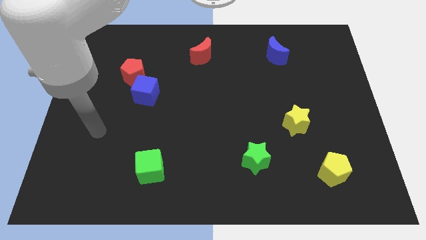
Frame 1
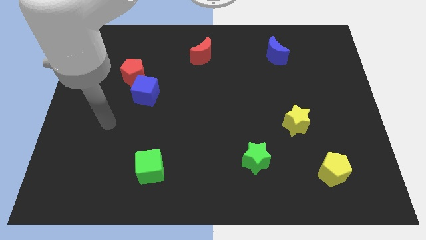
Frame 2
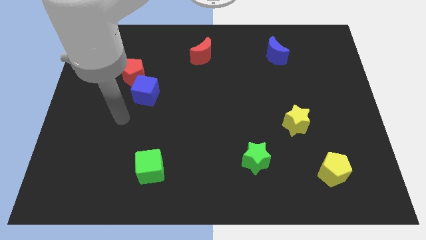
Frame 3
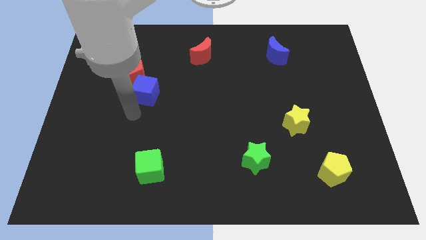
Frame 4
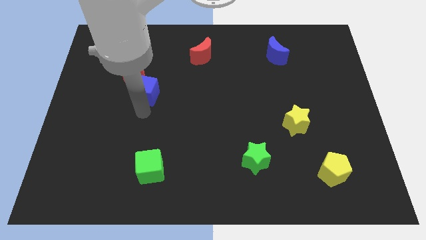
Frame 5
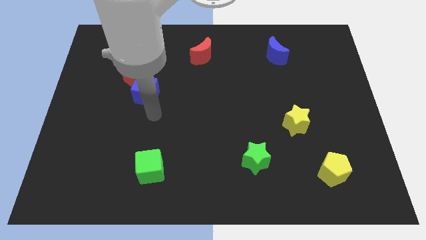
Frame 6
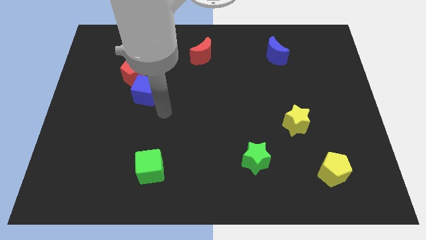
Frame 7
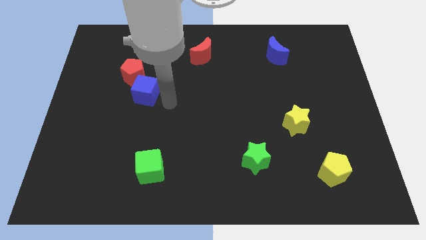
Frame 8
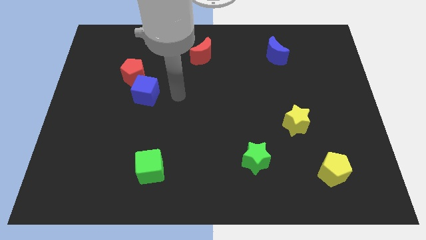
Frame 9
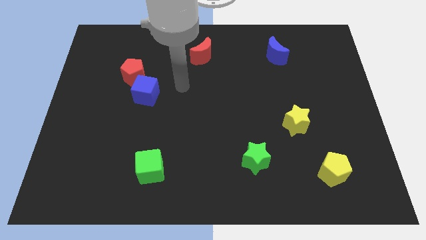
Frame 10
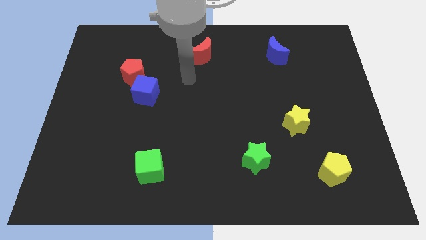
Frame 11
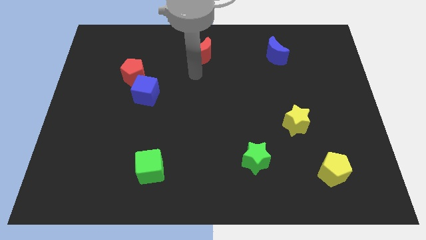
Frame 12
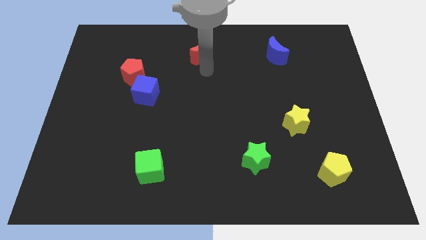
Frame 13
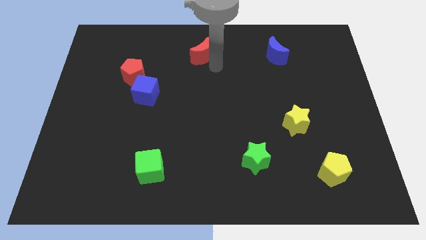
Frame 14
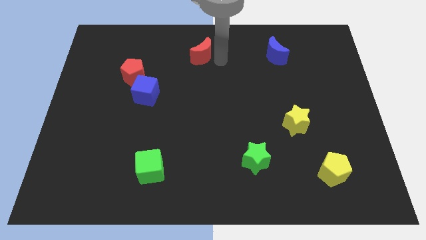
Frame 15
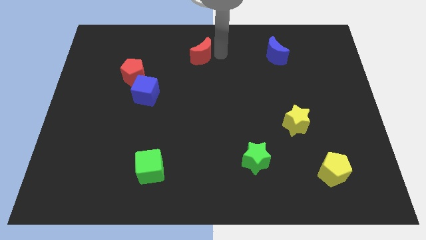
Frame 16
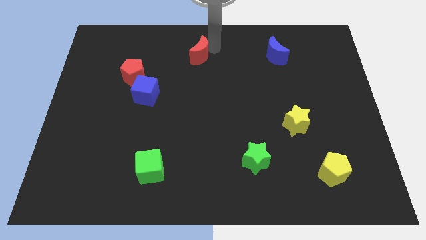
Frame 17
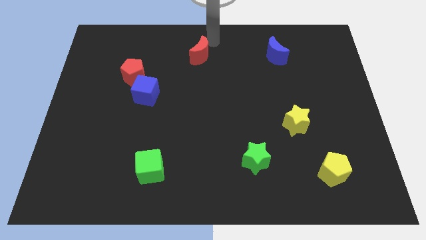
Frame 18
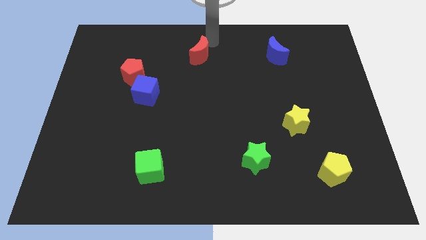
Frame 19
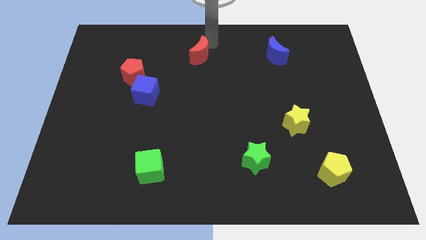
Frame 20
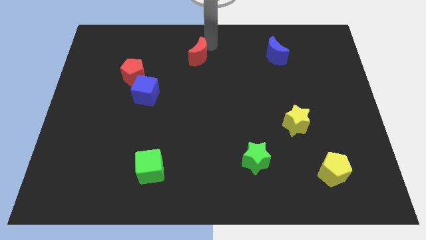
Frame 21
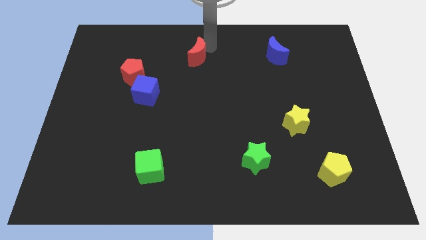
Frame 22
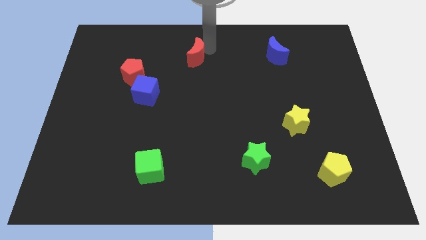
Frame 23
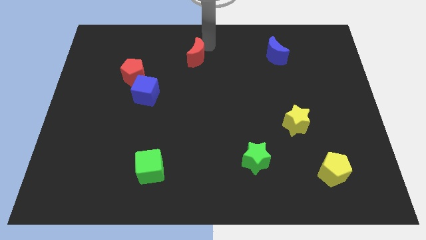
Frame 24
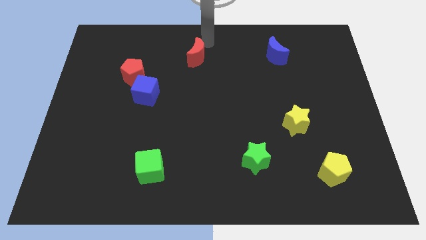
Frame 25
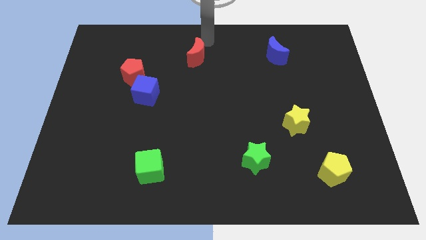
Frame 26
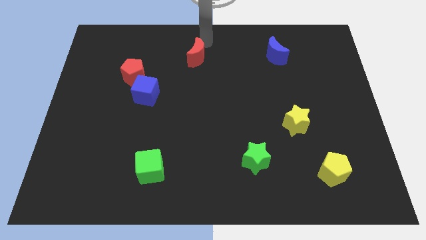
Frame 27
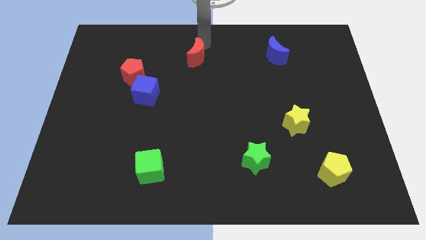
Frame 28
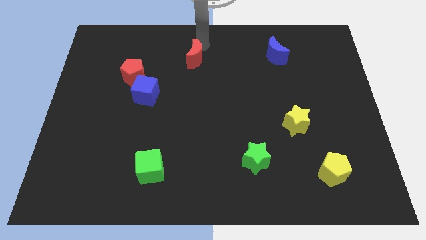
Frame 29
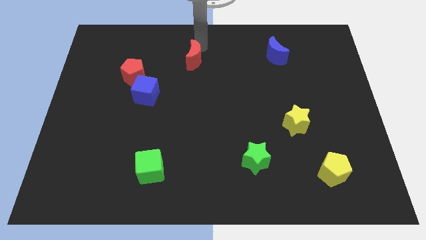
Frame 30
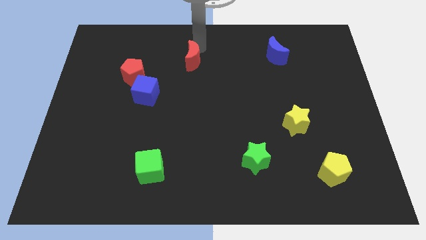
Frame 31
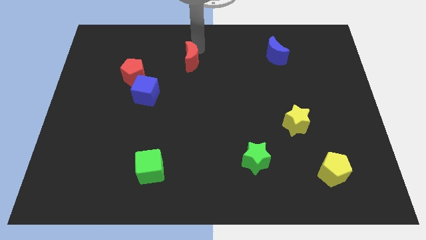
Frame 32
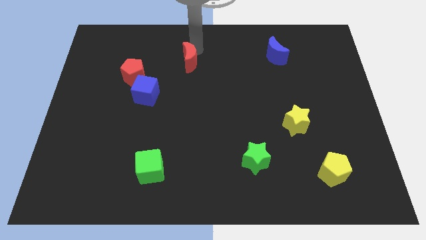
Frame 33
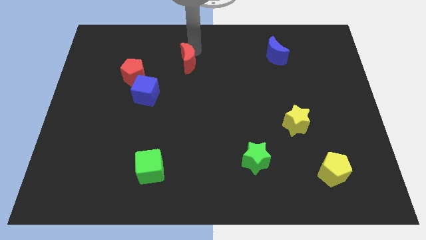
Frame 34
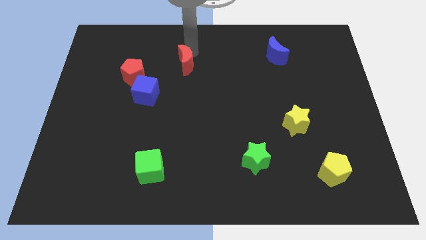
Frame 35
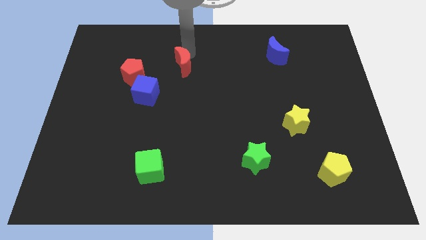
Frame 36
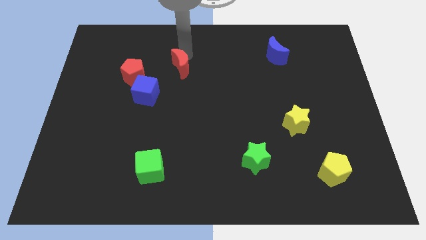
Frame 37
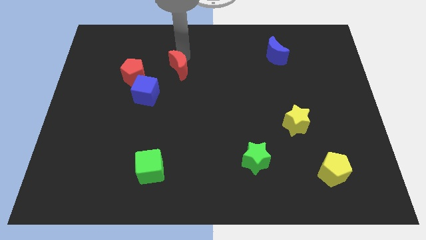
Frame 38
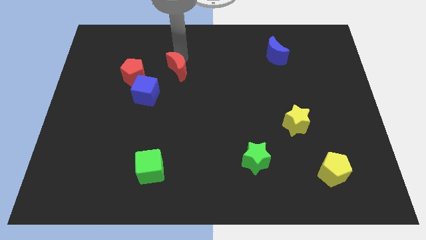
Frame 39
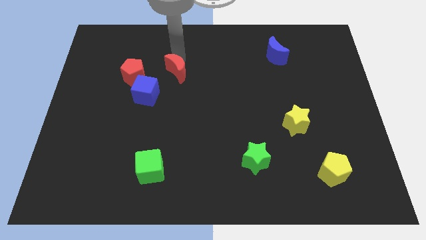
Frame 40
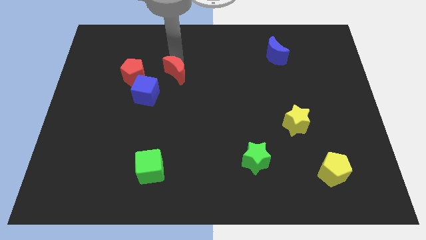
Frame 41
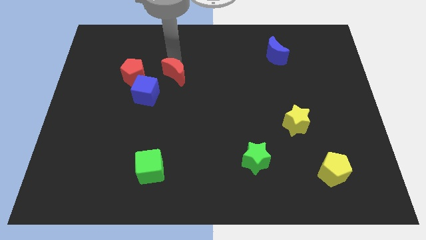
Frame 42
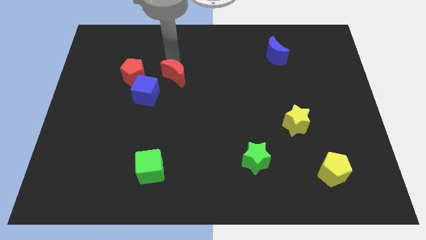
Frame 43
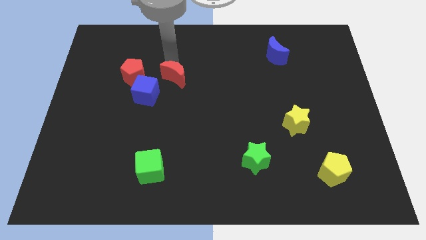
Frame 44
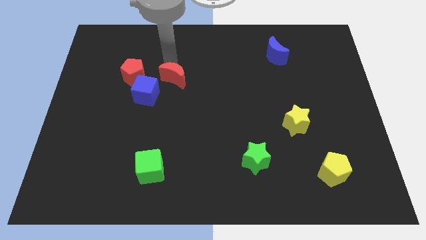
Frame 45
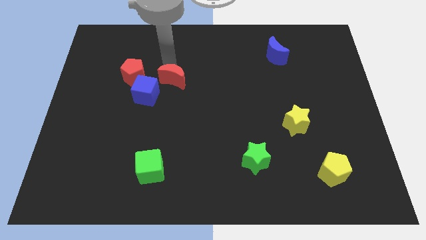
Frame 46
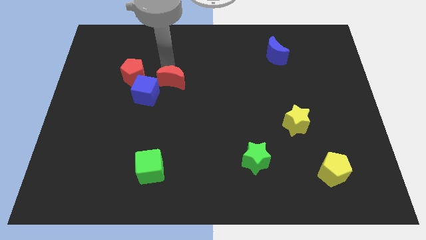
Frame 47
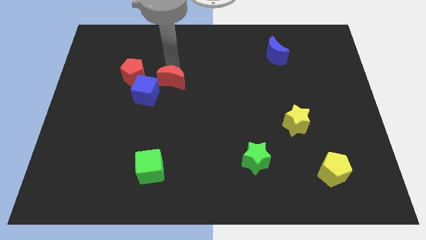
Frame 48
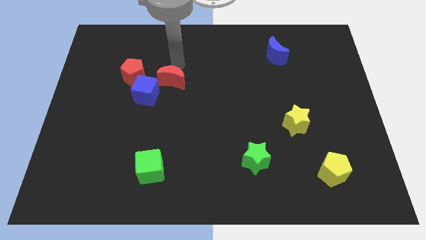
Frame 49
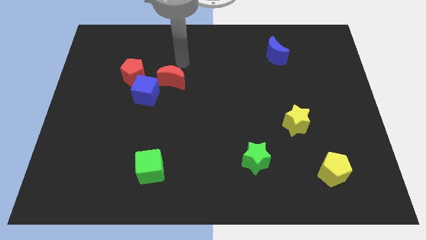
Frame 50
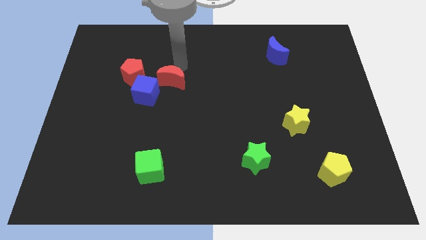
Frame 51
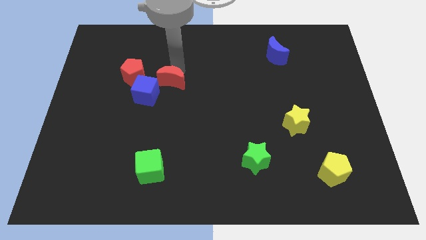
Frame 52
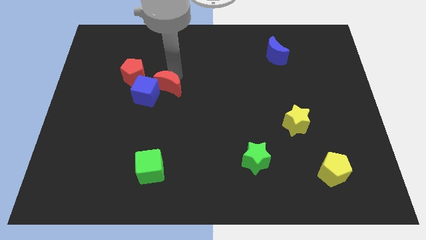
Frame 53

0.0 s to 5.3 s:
move the red moon to the bottom right side of the red pentagon

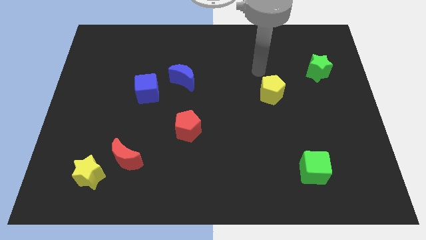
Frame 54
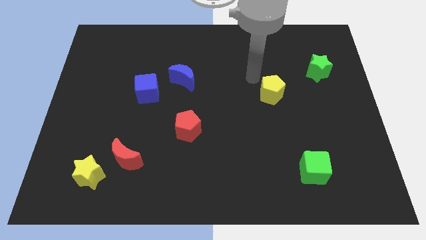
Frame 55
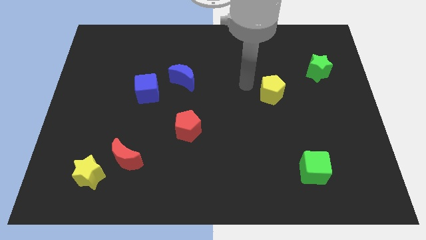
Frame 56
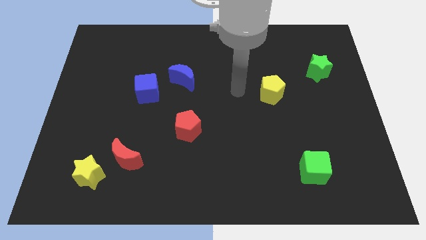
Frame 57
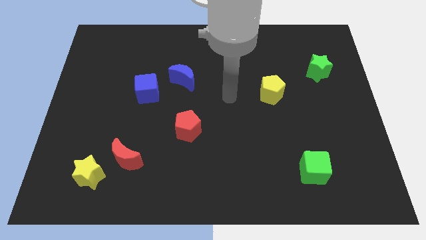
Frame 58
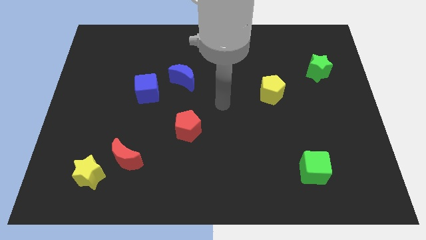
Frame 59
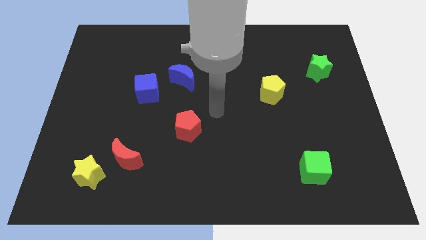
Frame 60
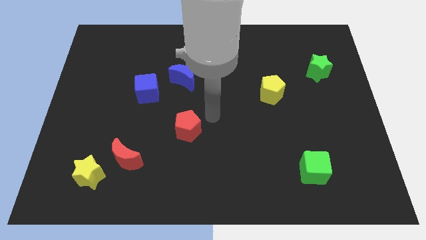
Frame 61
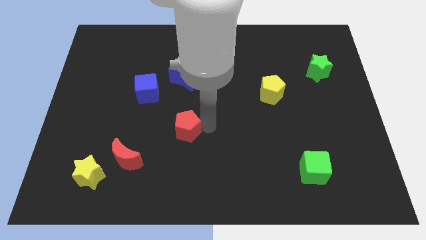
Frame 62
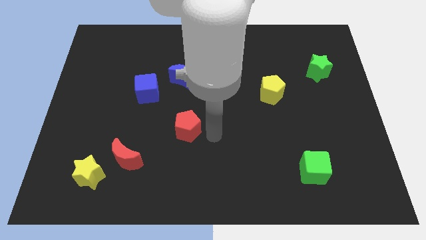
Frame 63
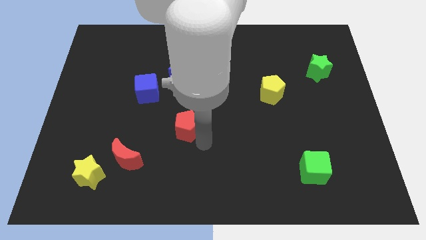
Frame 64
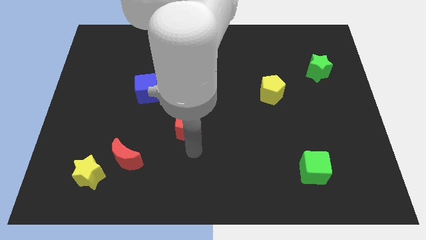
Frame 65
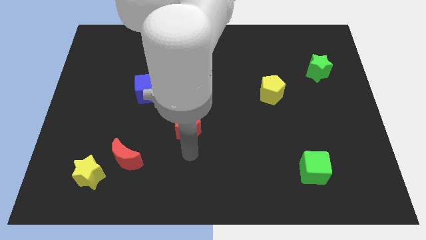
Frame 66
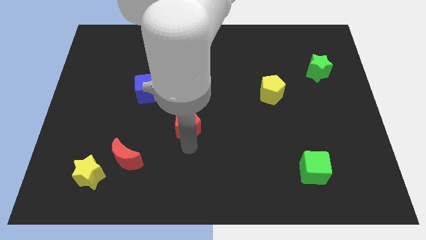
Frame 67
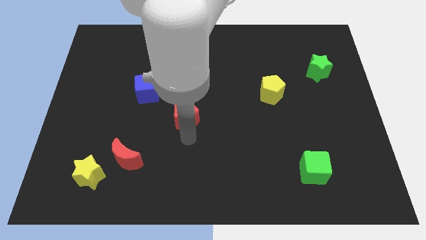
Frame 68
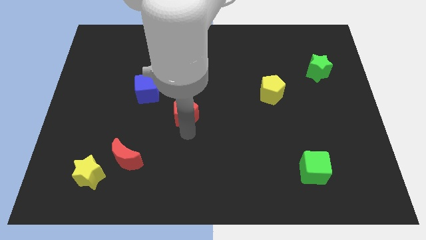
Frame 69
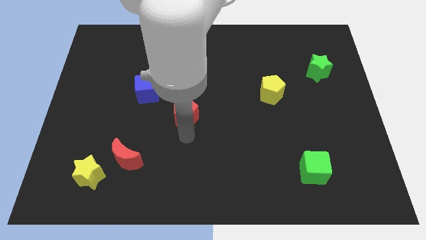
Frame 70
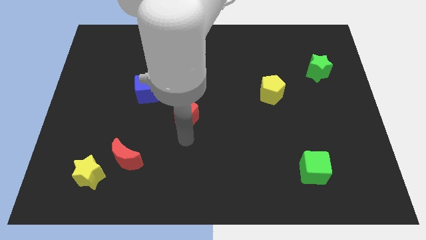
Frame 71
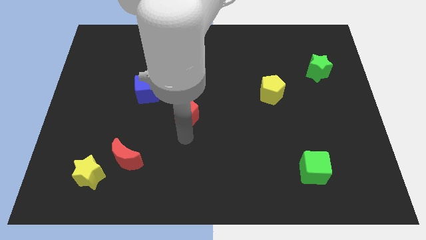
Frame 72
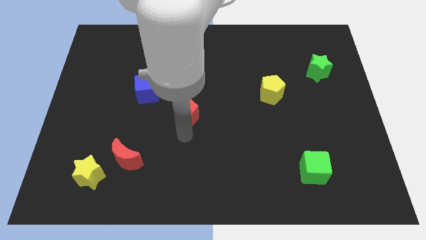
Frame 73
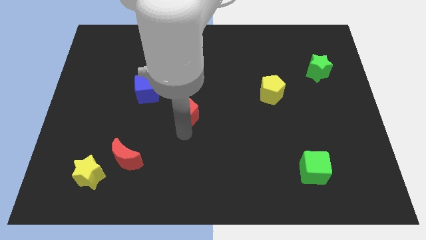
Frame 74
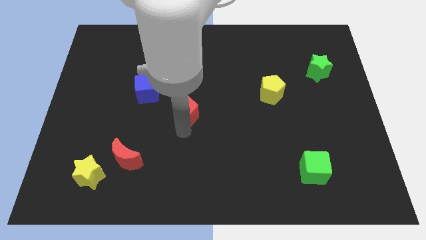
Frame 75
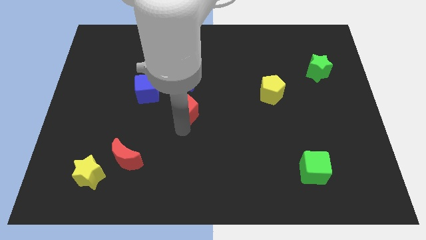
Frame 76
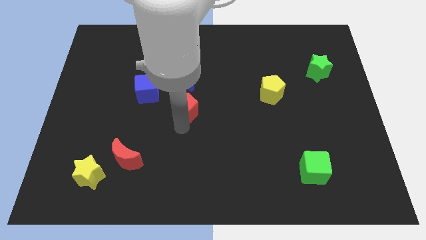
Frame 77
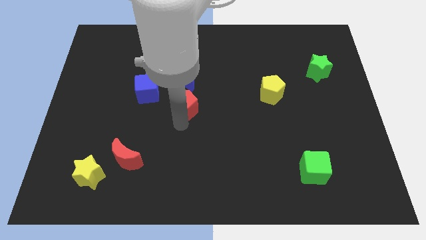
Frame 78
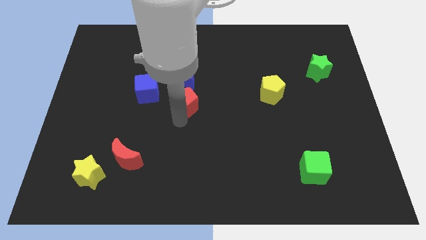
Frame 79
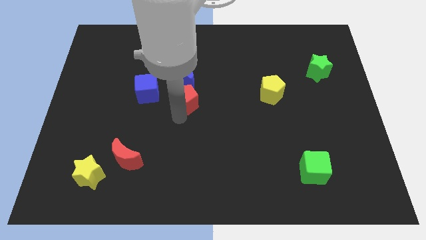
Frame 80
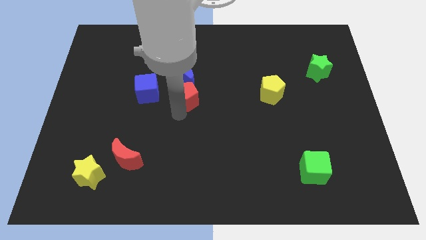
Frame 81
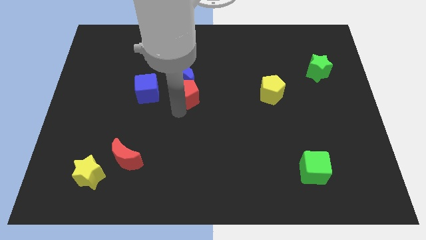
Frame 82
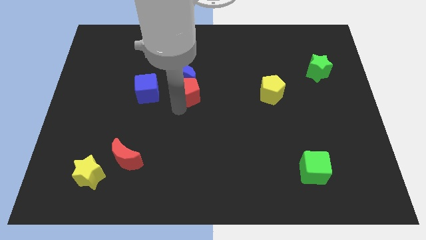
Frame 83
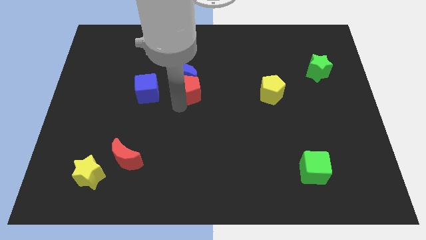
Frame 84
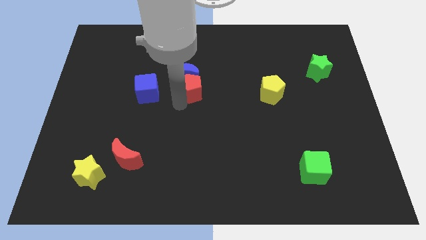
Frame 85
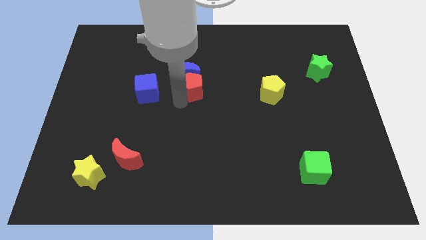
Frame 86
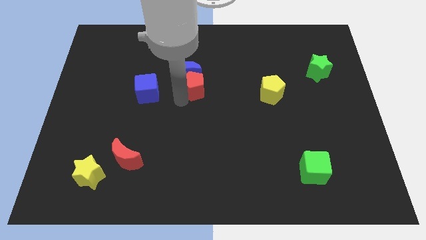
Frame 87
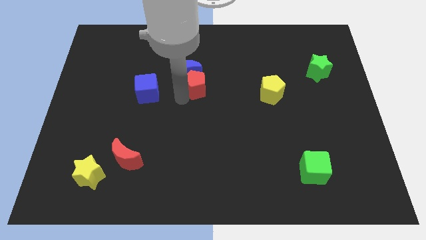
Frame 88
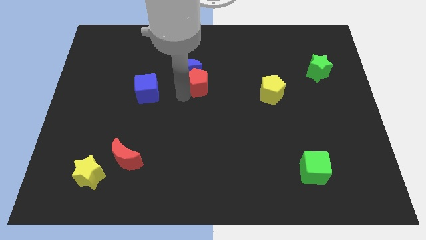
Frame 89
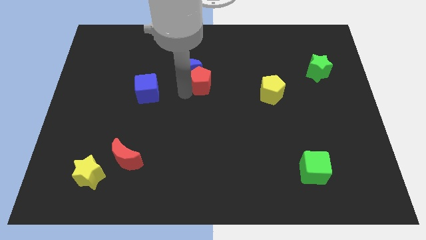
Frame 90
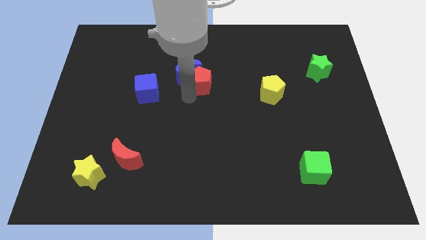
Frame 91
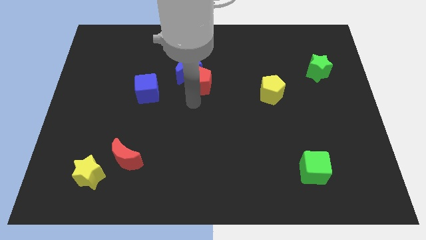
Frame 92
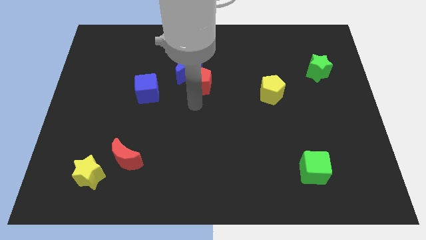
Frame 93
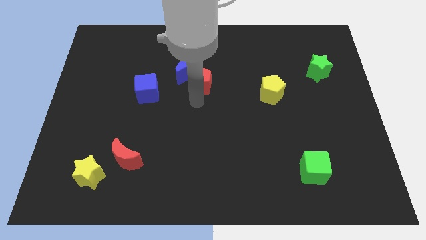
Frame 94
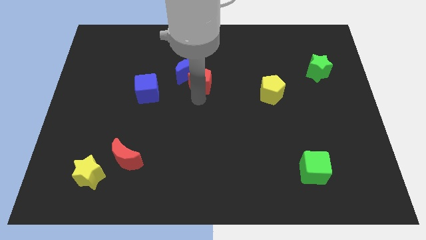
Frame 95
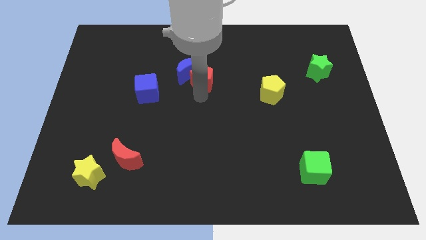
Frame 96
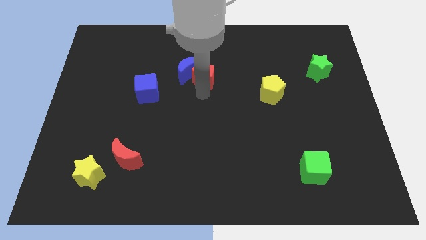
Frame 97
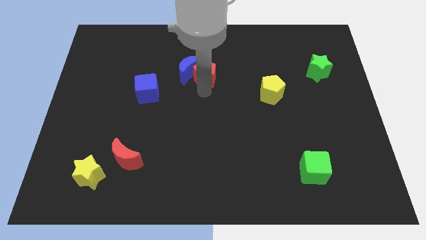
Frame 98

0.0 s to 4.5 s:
move the red pentagon to the top right side of the blue moon
